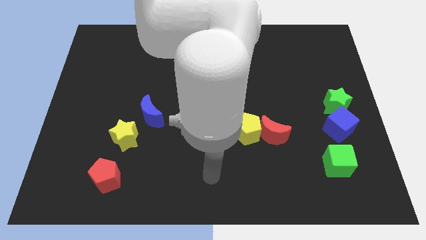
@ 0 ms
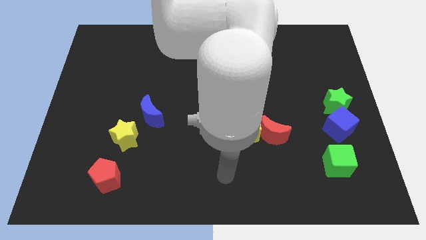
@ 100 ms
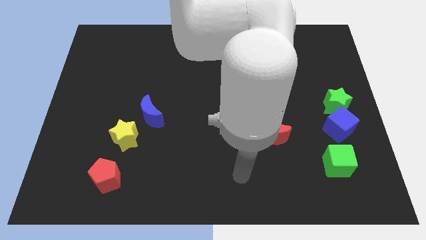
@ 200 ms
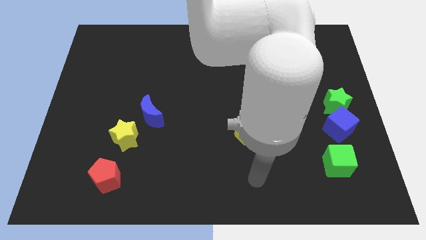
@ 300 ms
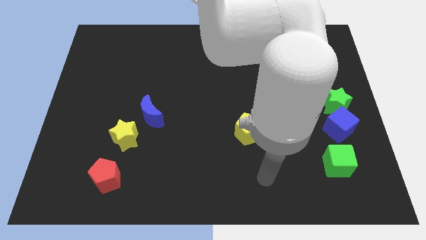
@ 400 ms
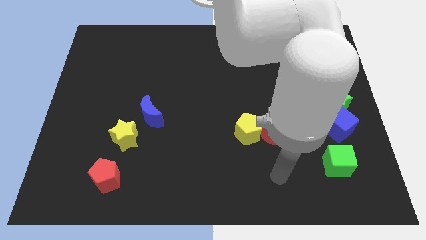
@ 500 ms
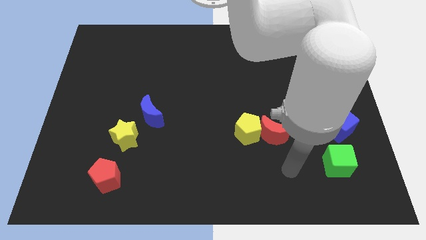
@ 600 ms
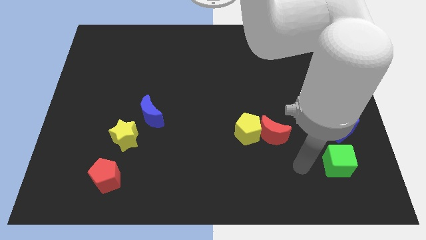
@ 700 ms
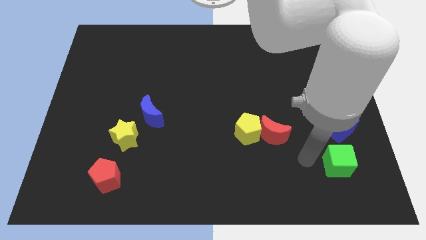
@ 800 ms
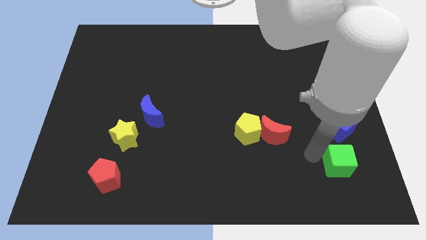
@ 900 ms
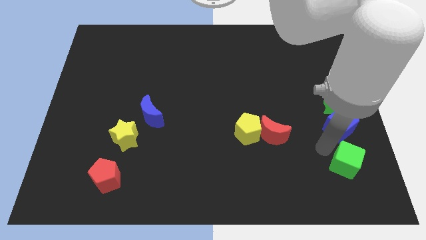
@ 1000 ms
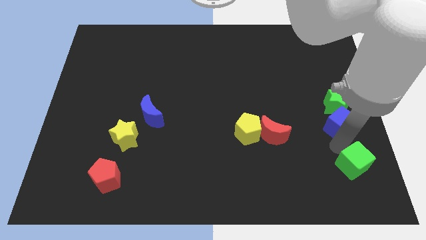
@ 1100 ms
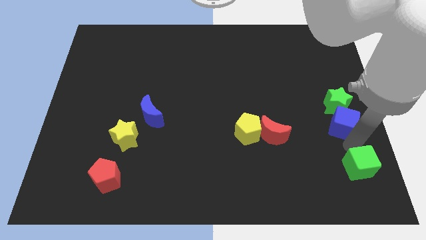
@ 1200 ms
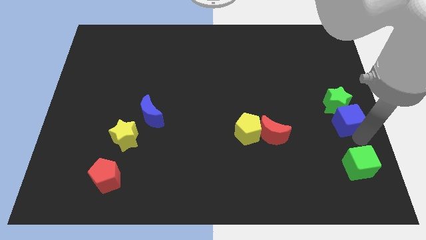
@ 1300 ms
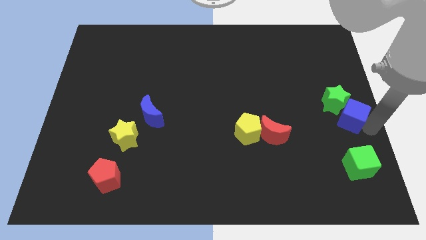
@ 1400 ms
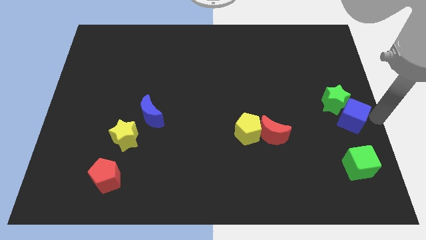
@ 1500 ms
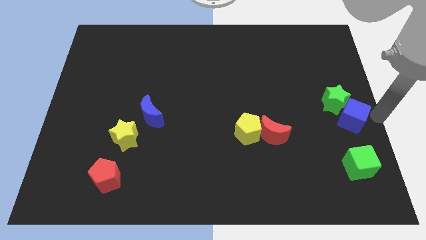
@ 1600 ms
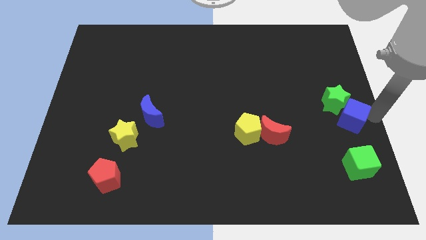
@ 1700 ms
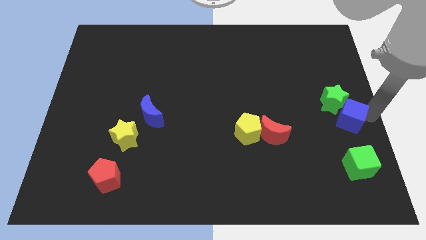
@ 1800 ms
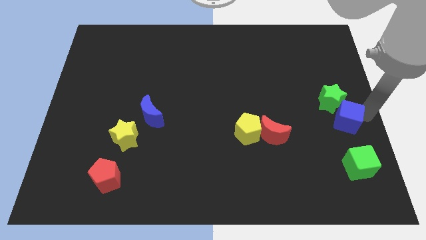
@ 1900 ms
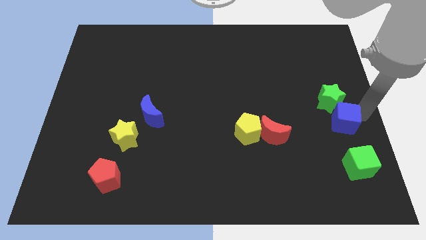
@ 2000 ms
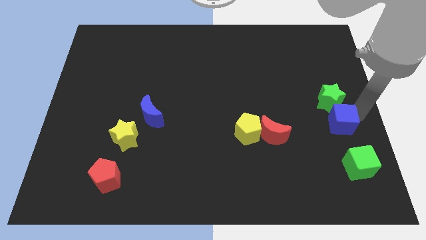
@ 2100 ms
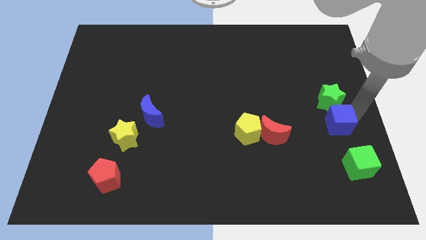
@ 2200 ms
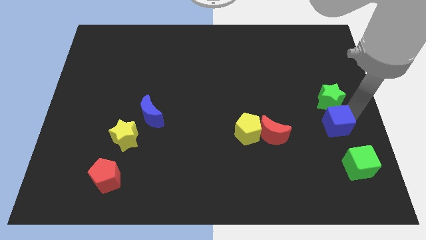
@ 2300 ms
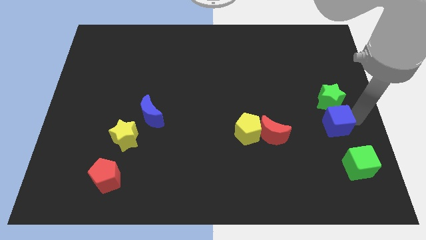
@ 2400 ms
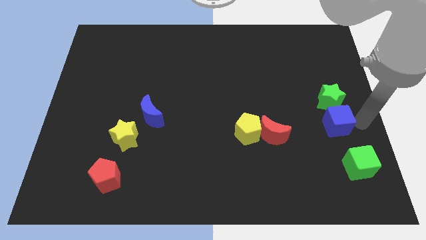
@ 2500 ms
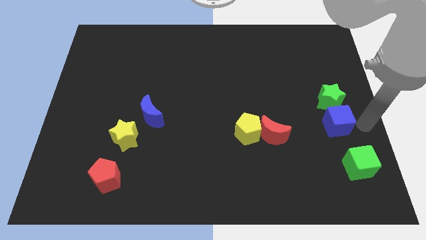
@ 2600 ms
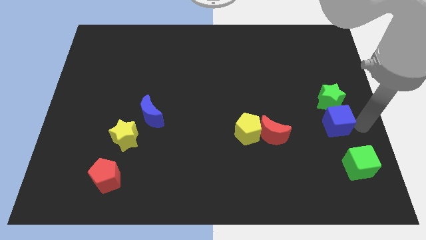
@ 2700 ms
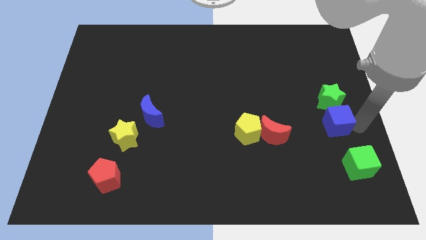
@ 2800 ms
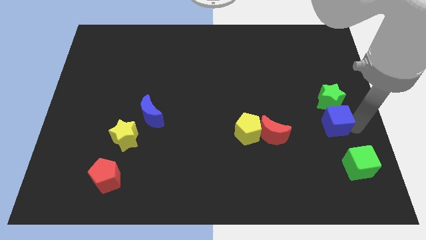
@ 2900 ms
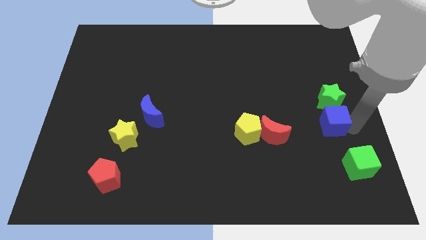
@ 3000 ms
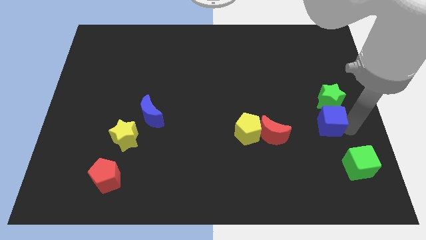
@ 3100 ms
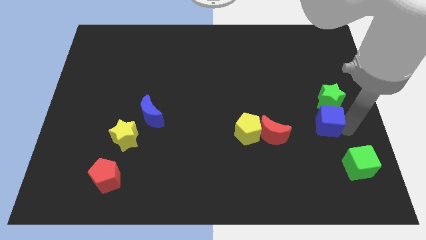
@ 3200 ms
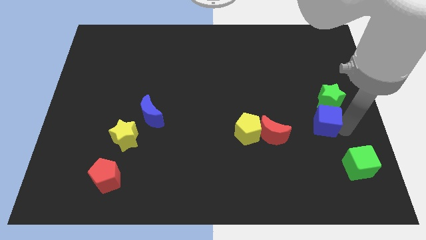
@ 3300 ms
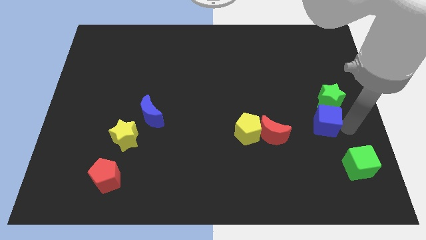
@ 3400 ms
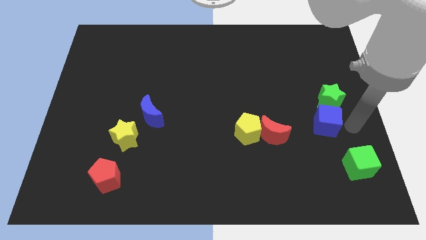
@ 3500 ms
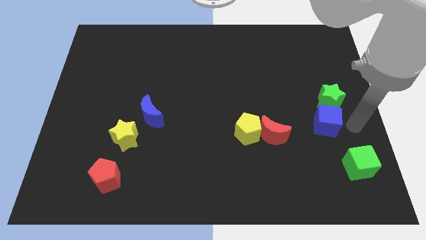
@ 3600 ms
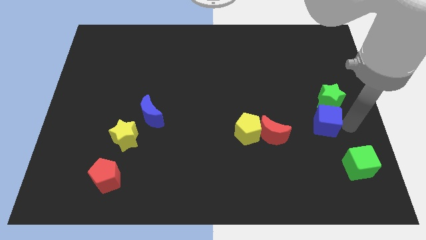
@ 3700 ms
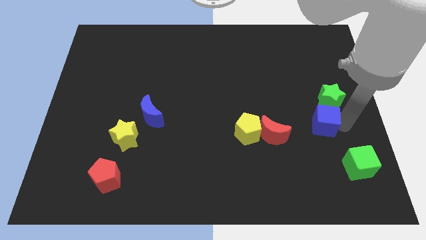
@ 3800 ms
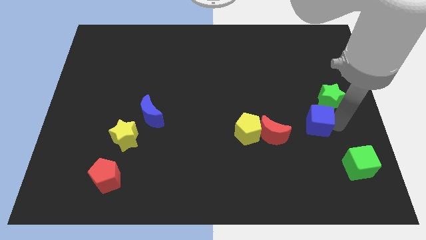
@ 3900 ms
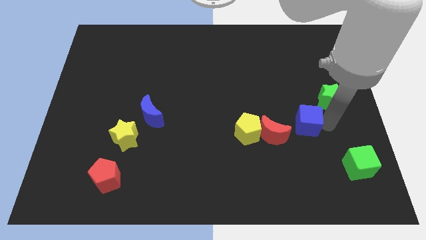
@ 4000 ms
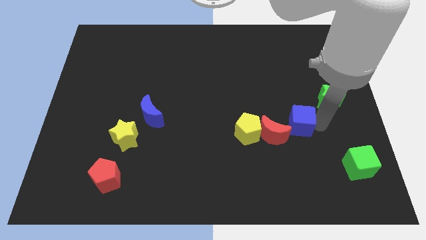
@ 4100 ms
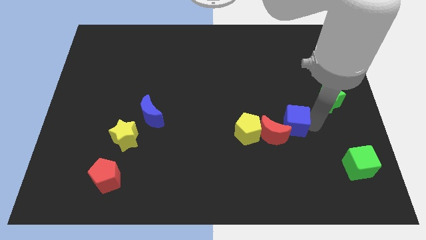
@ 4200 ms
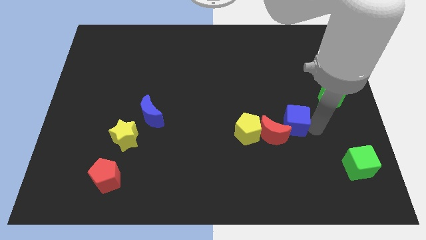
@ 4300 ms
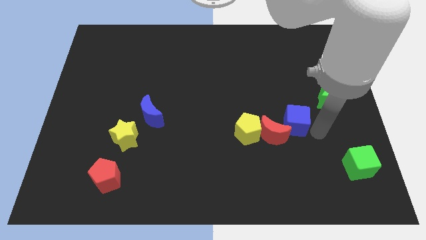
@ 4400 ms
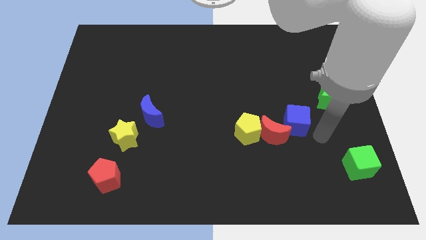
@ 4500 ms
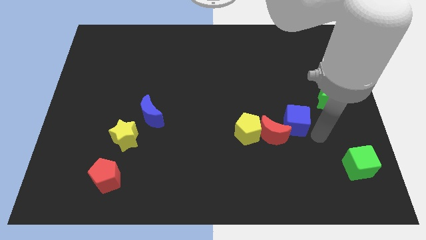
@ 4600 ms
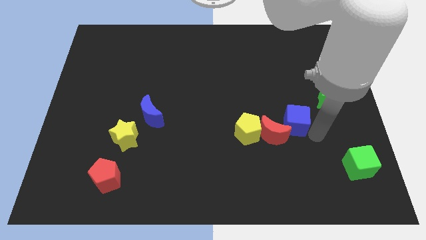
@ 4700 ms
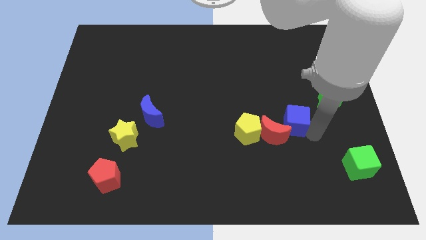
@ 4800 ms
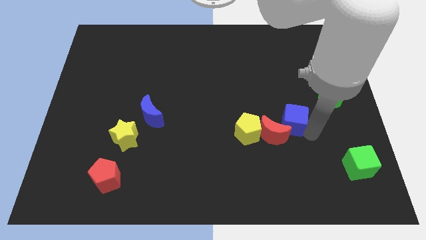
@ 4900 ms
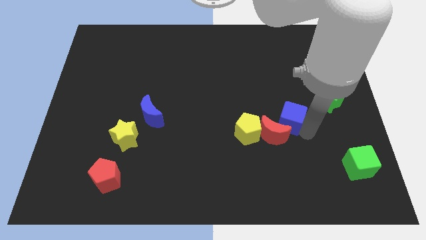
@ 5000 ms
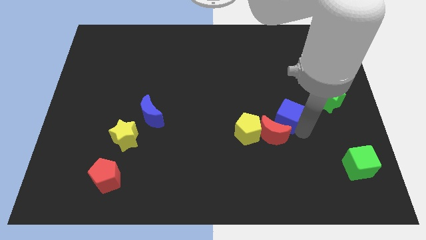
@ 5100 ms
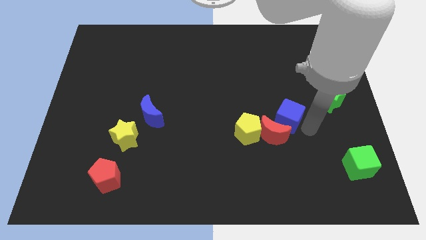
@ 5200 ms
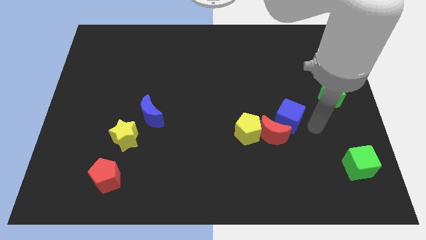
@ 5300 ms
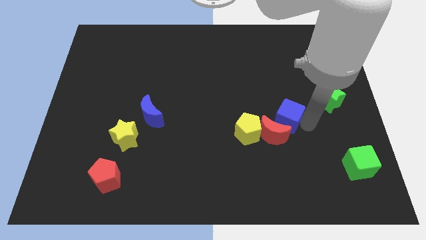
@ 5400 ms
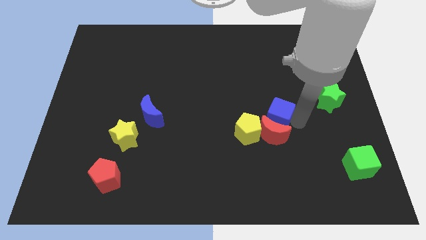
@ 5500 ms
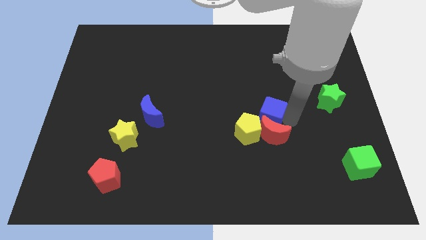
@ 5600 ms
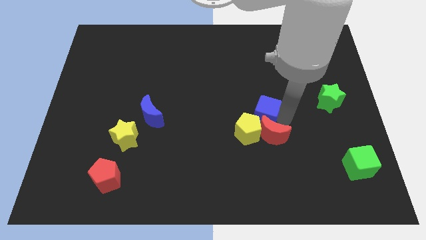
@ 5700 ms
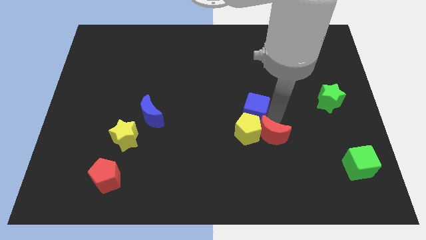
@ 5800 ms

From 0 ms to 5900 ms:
put the blue cube to the center of the board
